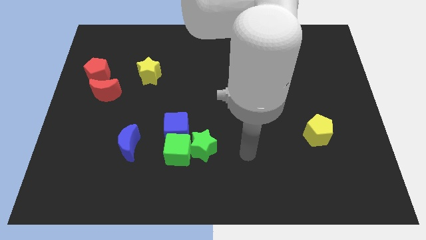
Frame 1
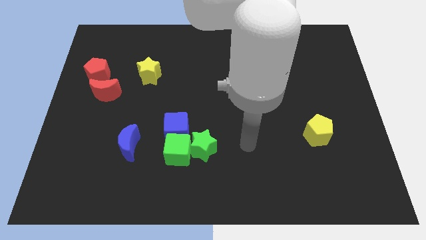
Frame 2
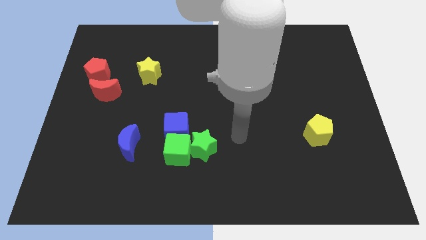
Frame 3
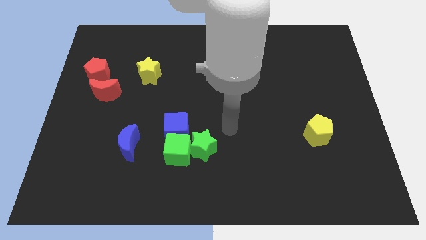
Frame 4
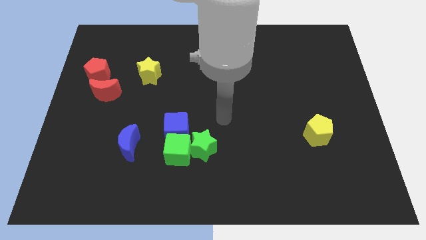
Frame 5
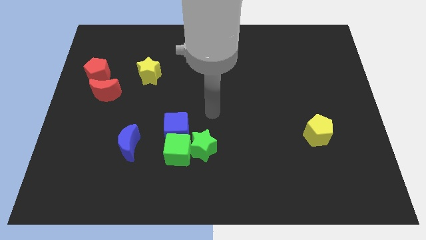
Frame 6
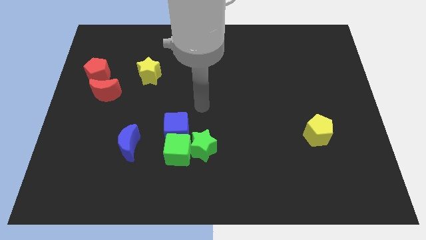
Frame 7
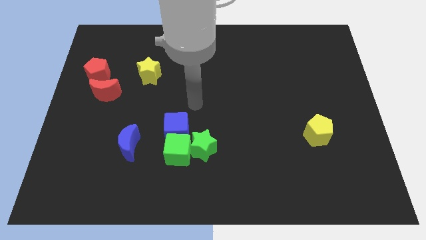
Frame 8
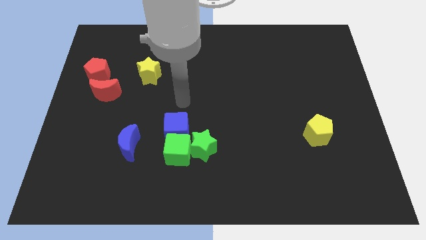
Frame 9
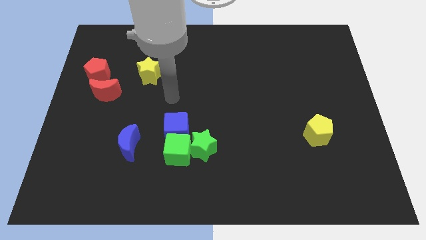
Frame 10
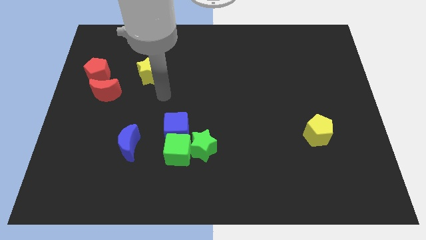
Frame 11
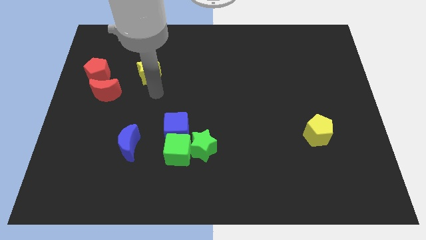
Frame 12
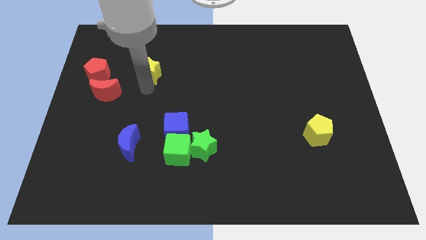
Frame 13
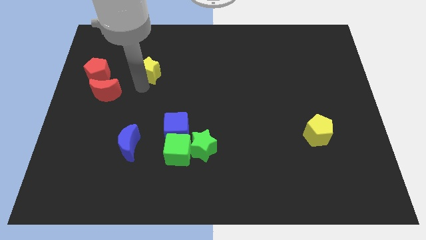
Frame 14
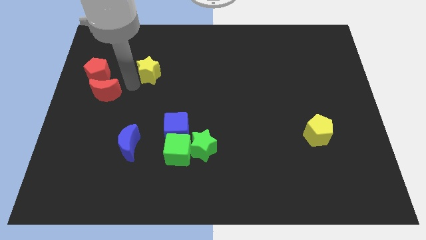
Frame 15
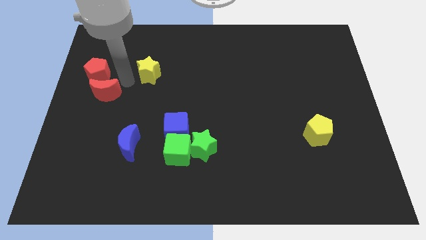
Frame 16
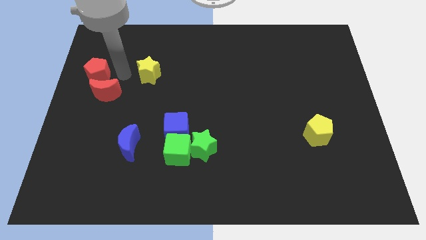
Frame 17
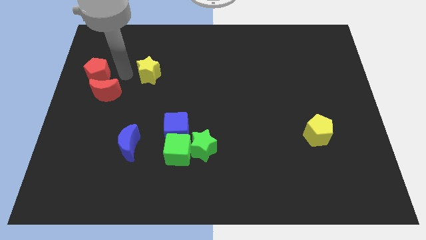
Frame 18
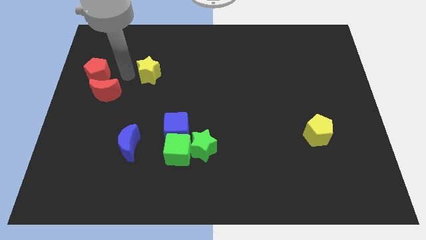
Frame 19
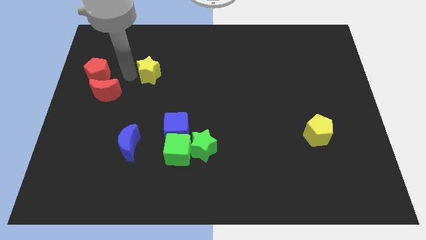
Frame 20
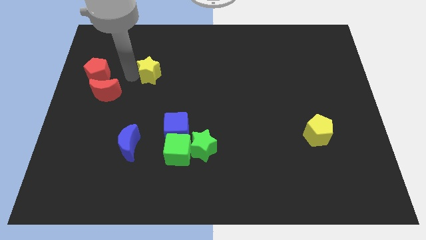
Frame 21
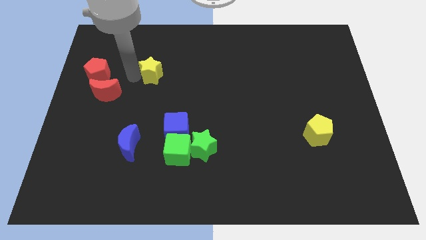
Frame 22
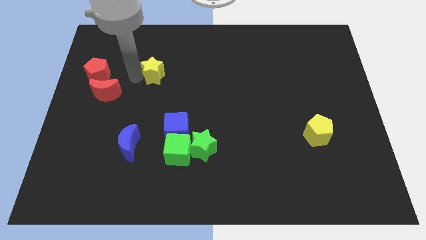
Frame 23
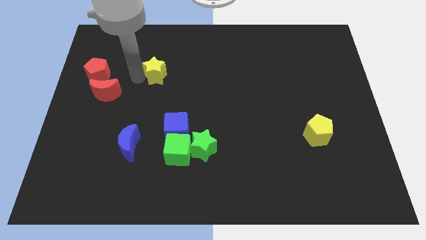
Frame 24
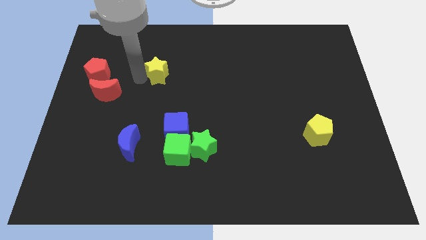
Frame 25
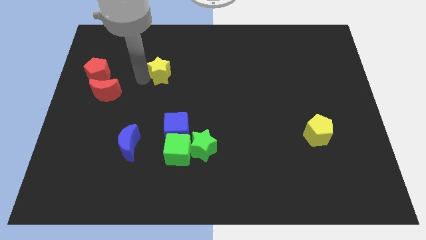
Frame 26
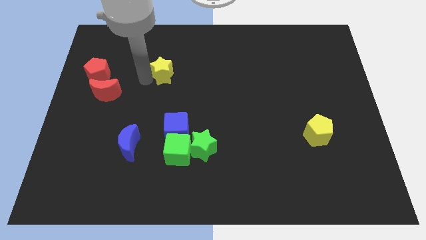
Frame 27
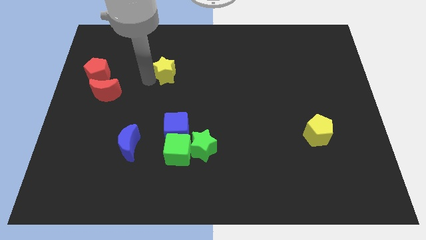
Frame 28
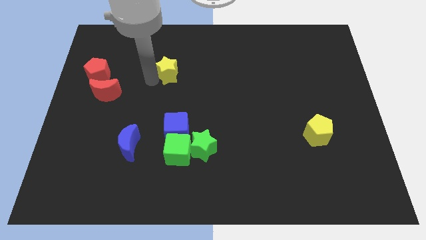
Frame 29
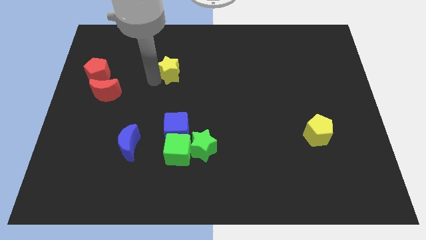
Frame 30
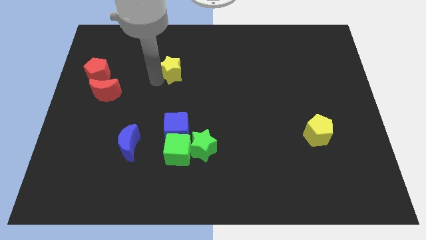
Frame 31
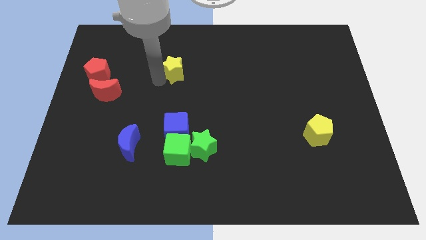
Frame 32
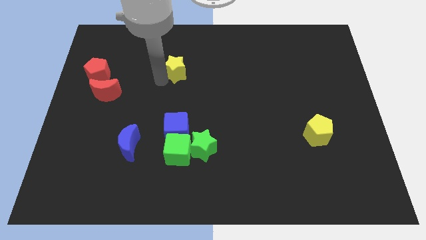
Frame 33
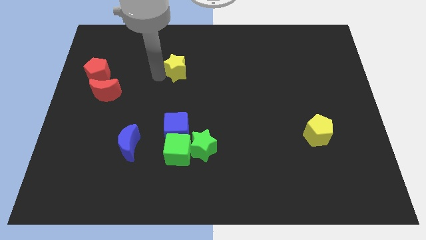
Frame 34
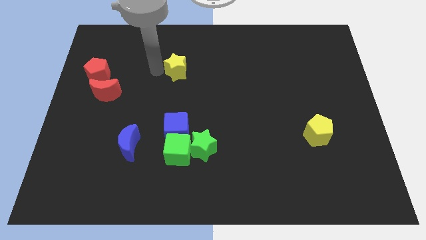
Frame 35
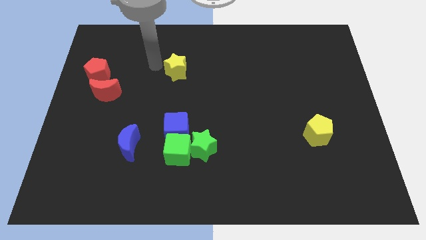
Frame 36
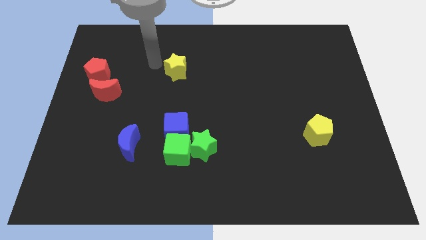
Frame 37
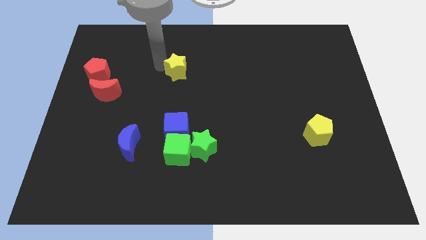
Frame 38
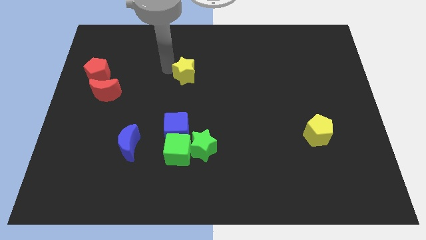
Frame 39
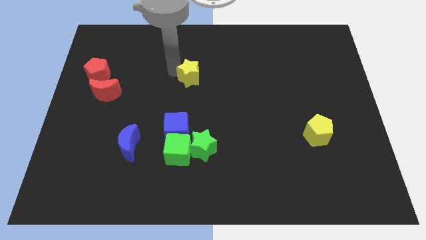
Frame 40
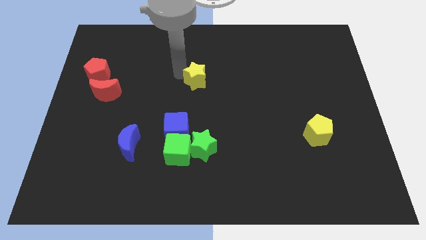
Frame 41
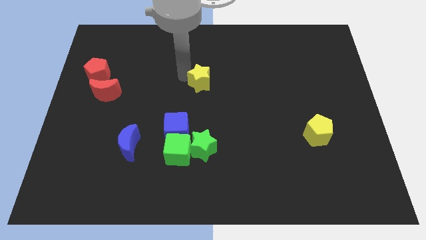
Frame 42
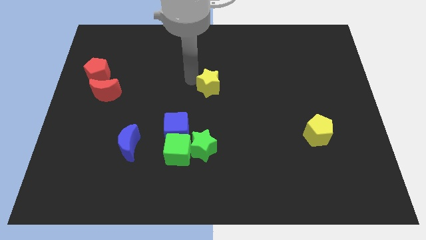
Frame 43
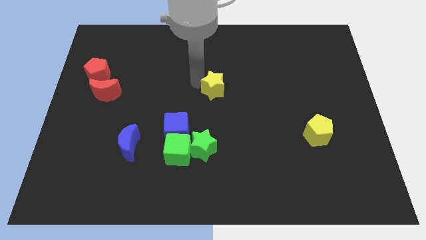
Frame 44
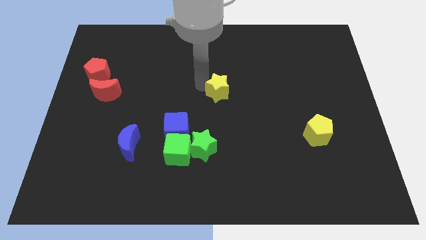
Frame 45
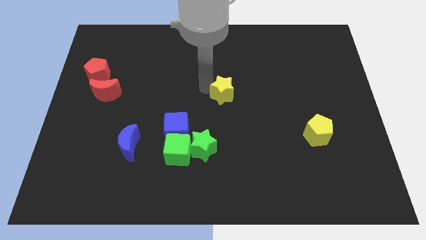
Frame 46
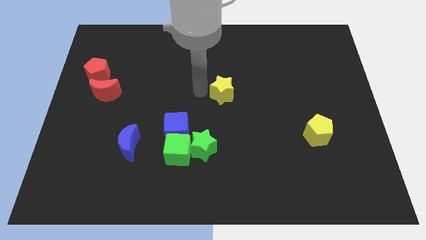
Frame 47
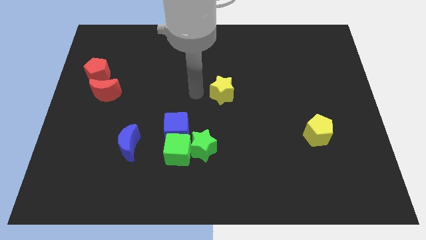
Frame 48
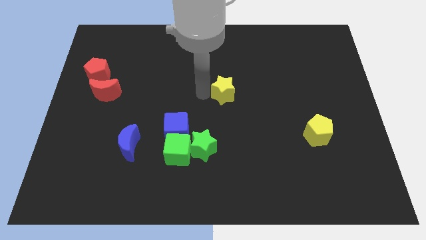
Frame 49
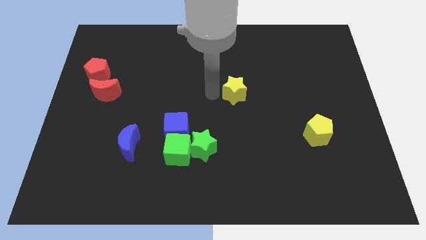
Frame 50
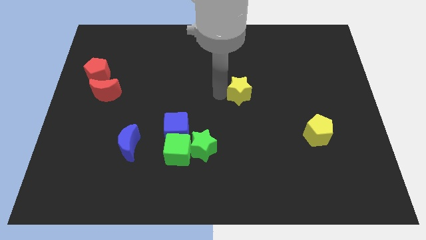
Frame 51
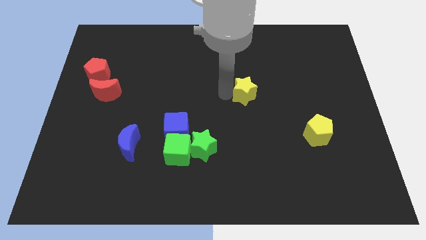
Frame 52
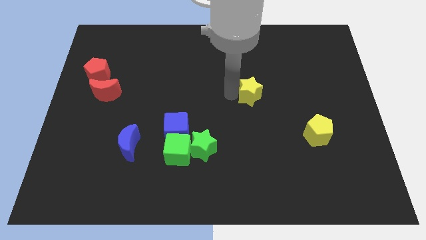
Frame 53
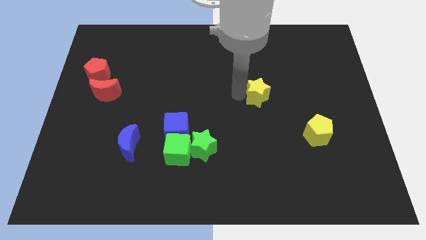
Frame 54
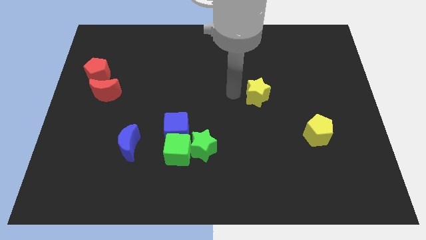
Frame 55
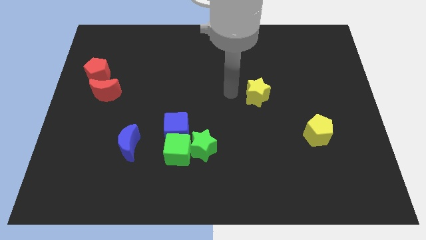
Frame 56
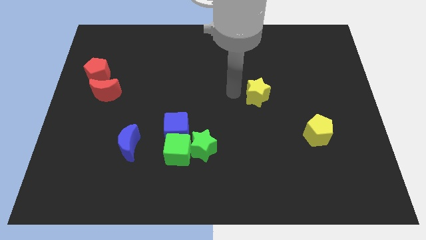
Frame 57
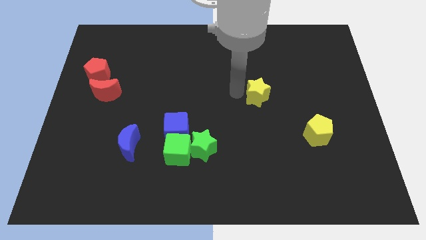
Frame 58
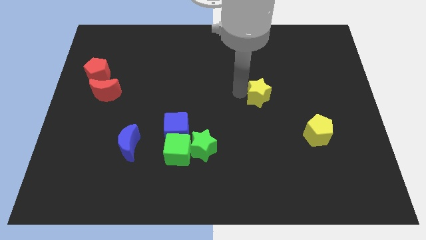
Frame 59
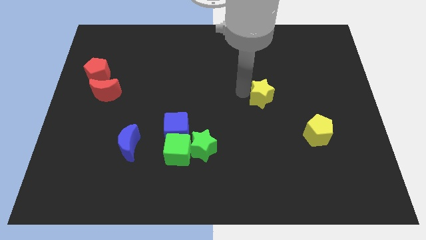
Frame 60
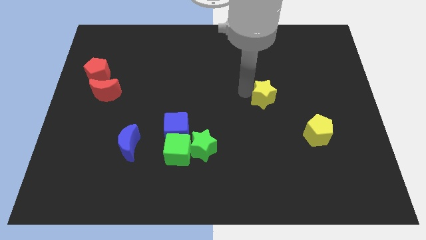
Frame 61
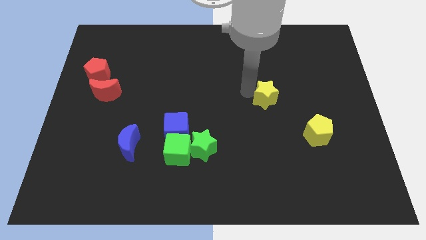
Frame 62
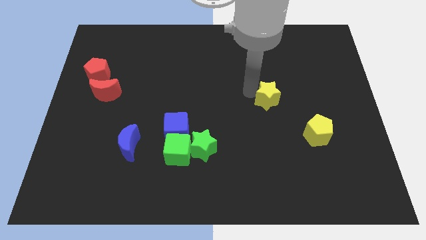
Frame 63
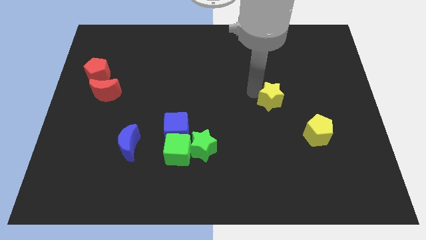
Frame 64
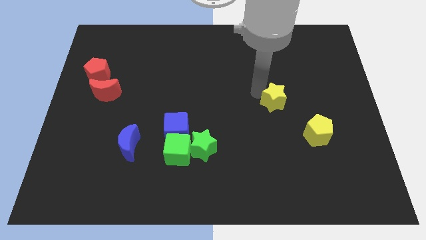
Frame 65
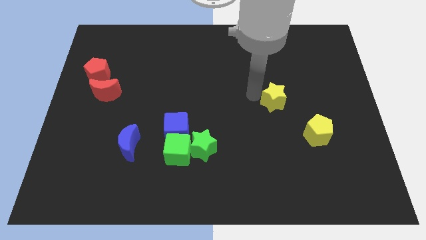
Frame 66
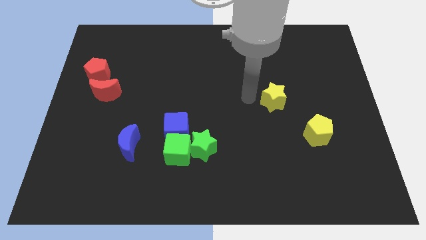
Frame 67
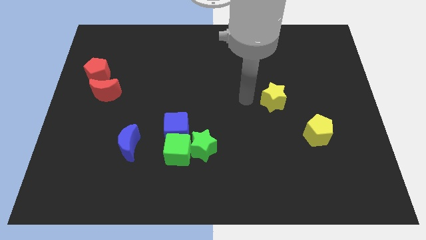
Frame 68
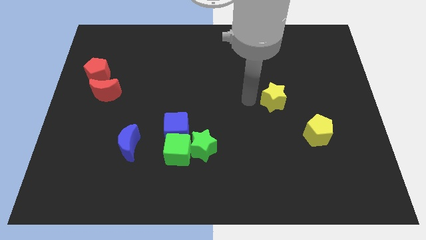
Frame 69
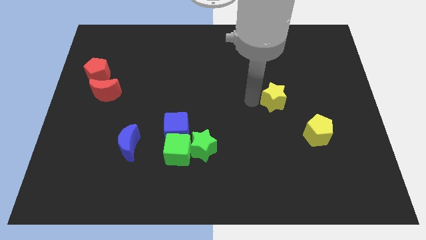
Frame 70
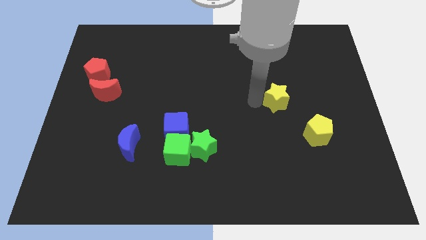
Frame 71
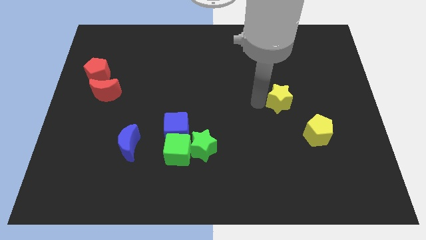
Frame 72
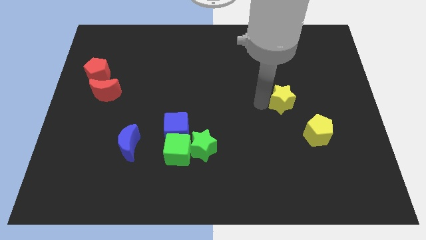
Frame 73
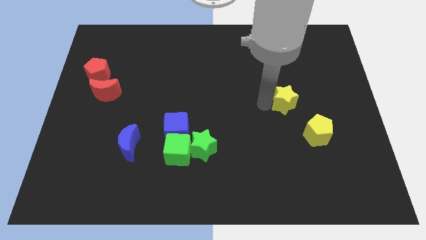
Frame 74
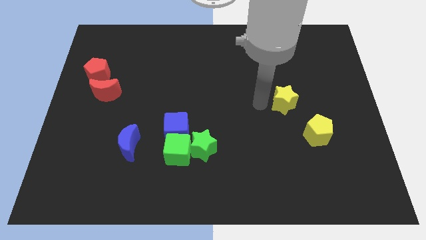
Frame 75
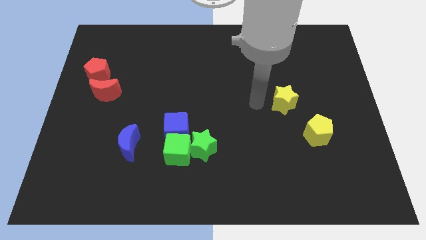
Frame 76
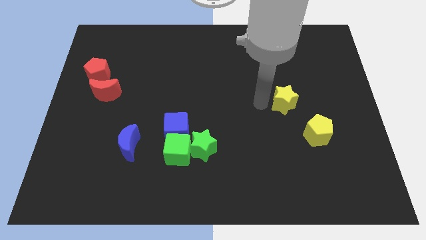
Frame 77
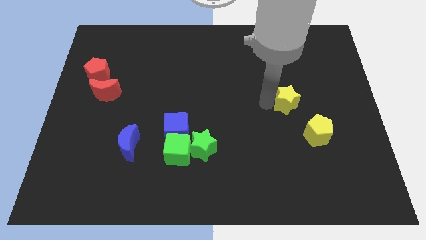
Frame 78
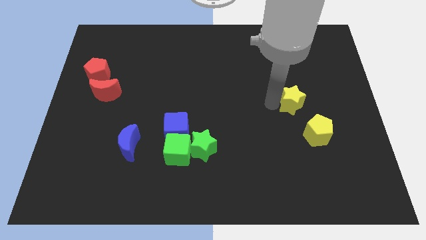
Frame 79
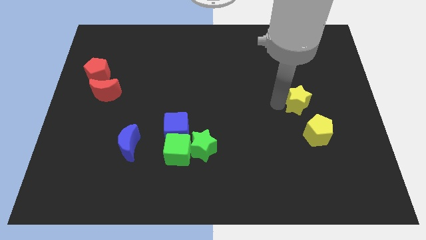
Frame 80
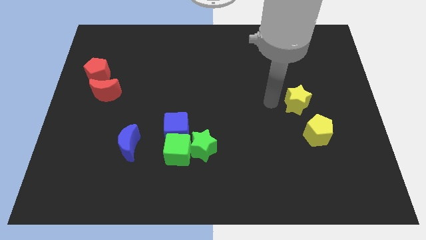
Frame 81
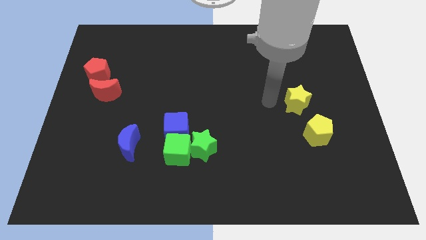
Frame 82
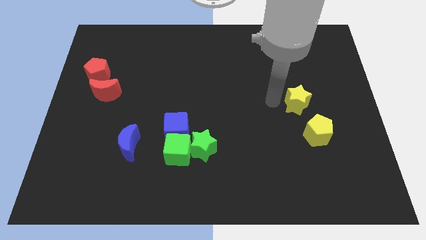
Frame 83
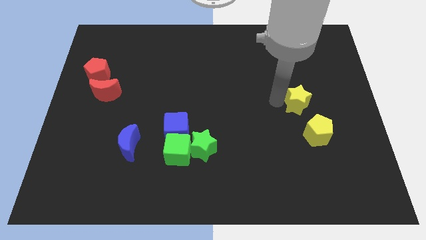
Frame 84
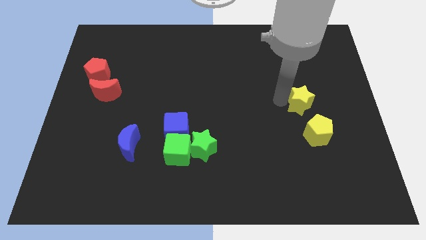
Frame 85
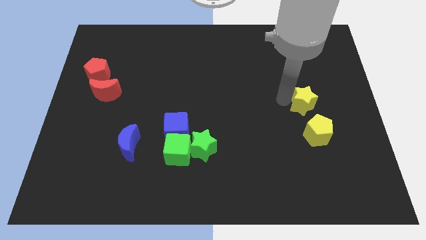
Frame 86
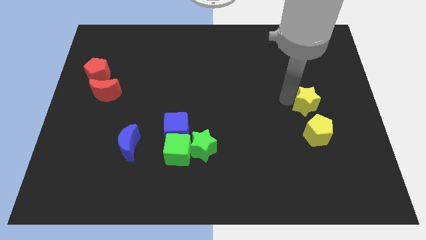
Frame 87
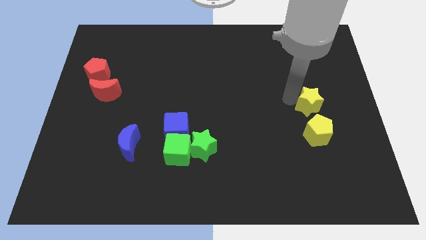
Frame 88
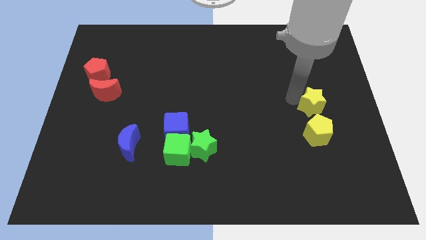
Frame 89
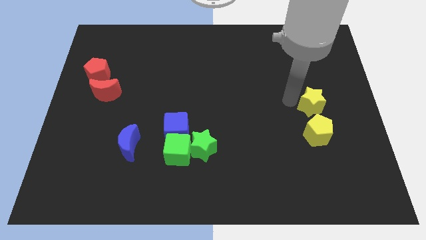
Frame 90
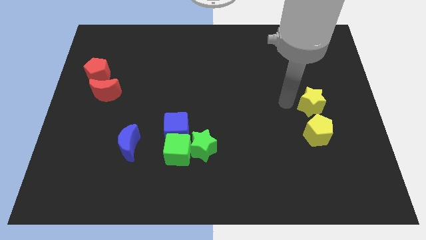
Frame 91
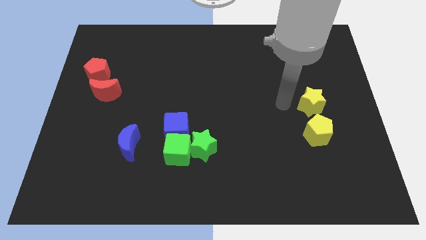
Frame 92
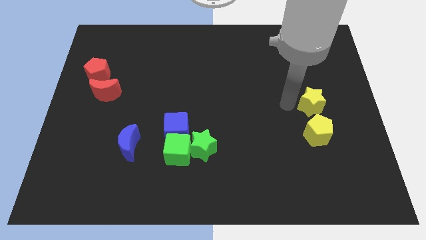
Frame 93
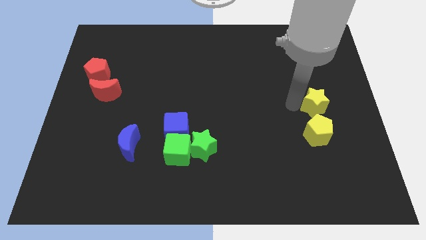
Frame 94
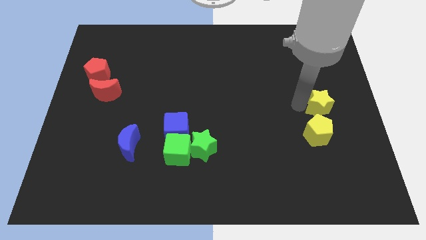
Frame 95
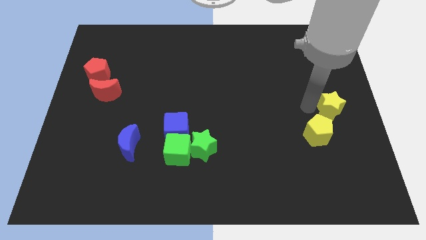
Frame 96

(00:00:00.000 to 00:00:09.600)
move the yellow star to the right side of the board
